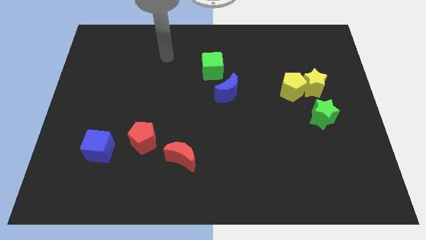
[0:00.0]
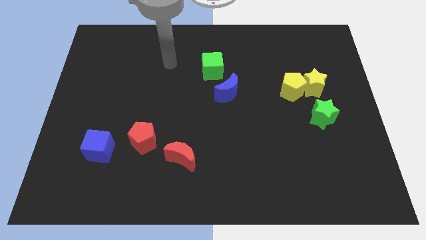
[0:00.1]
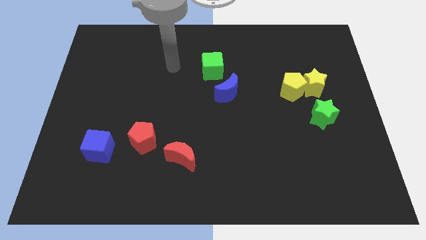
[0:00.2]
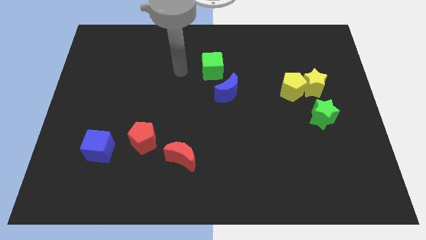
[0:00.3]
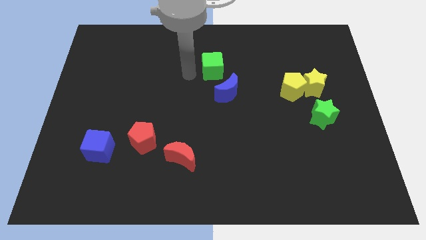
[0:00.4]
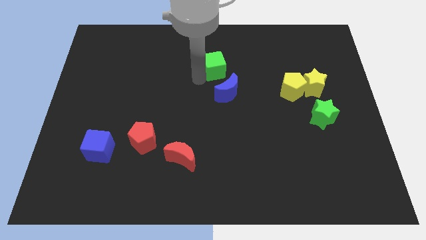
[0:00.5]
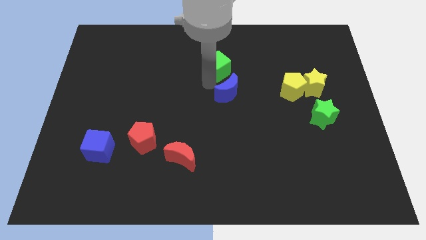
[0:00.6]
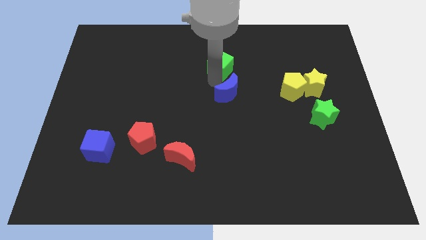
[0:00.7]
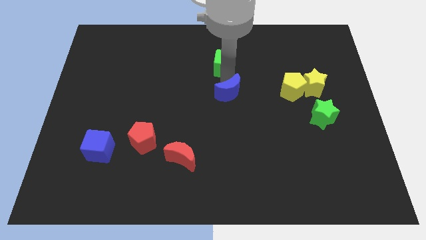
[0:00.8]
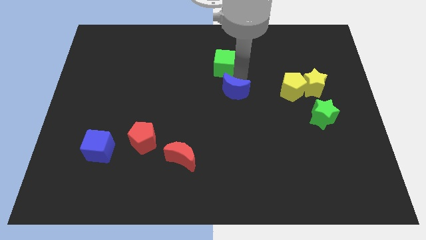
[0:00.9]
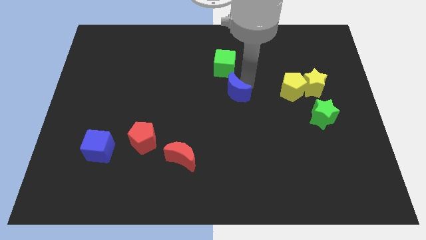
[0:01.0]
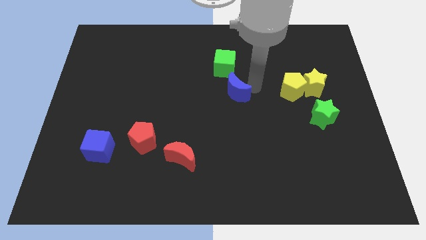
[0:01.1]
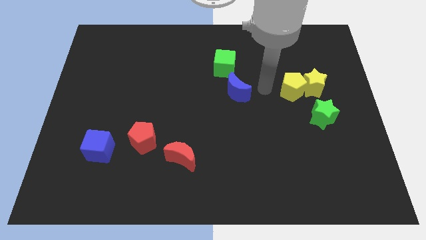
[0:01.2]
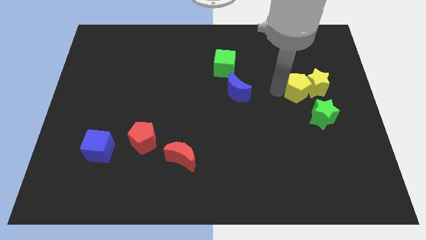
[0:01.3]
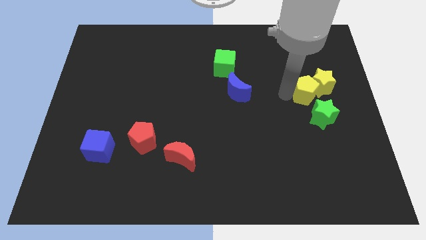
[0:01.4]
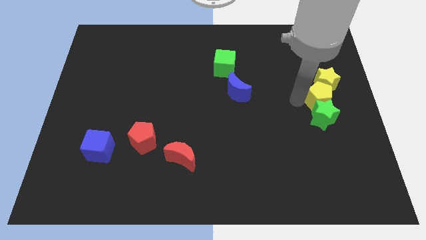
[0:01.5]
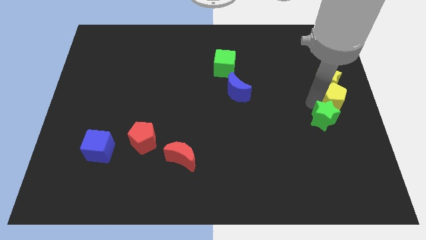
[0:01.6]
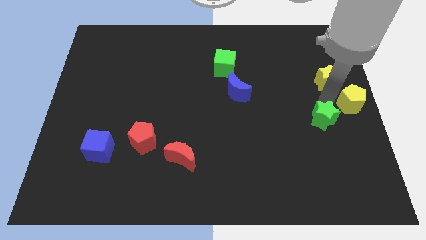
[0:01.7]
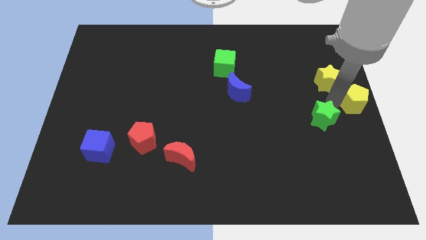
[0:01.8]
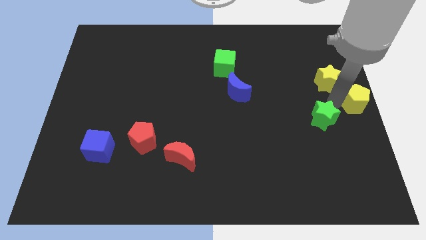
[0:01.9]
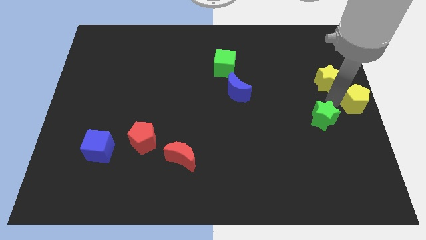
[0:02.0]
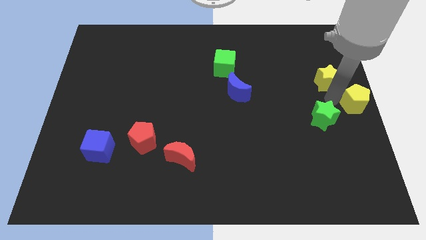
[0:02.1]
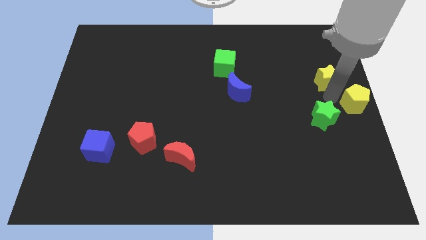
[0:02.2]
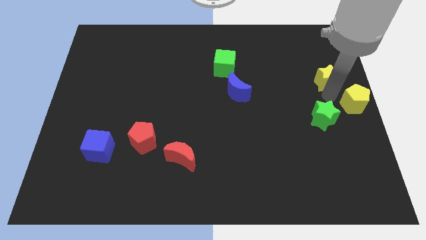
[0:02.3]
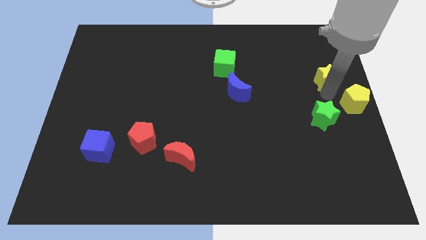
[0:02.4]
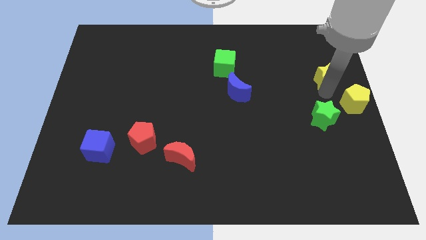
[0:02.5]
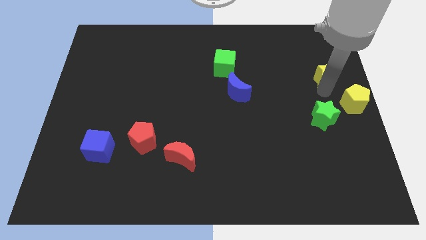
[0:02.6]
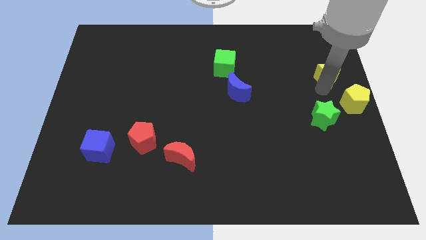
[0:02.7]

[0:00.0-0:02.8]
move the yellow star away from the yellow pentagon and green star

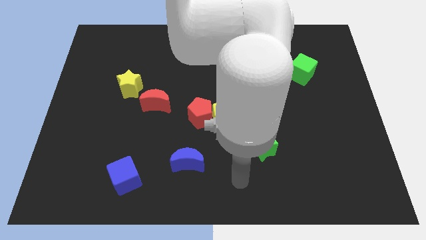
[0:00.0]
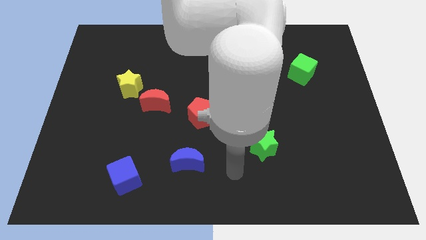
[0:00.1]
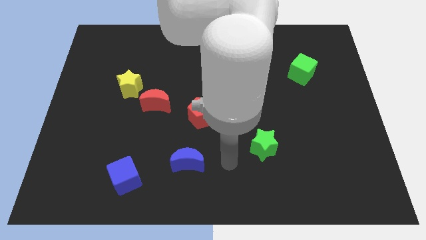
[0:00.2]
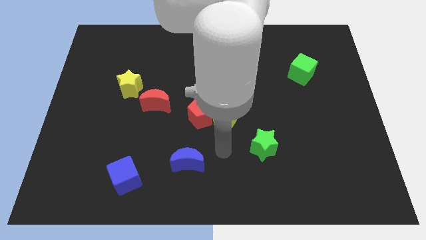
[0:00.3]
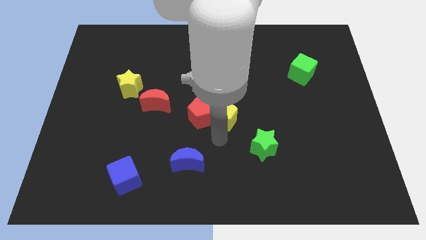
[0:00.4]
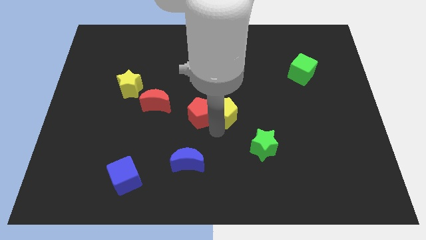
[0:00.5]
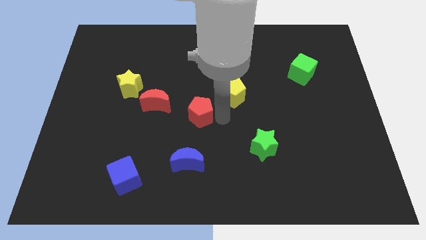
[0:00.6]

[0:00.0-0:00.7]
separate the red pentagon from the yellow pentagon

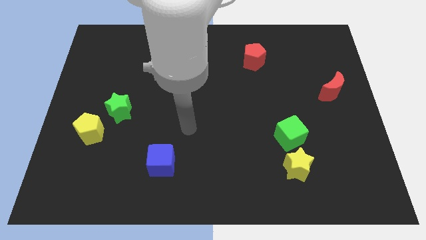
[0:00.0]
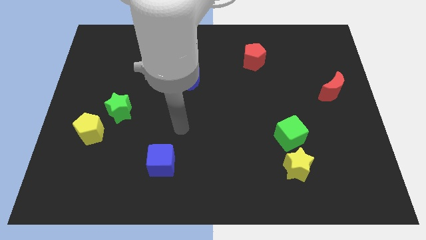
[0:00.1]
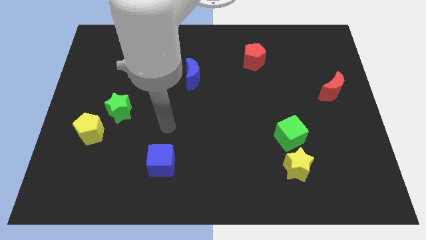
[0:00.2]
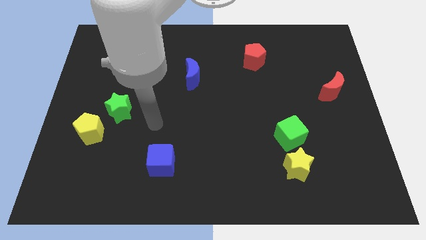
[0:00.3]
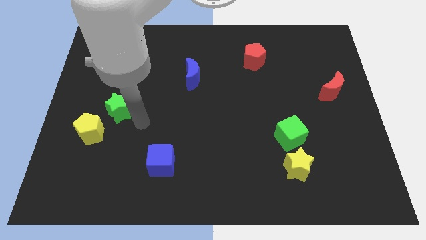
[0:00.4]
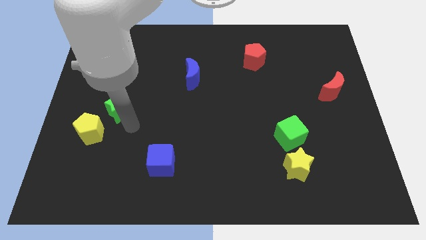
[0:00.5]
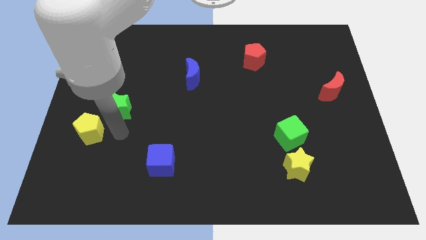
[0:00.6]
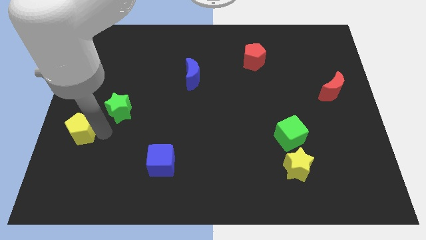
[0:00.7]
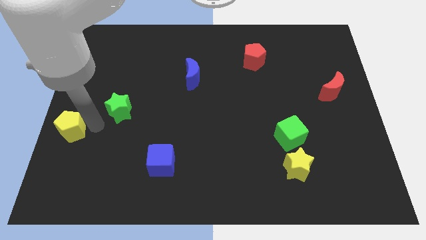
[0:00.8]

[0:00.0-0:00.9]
move the green star away from the yellow pentagon

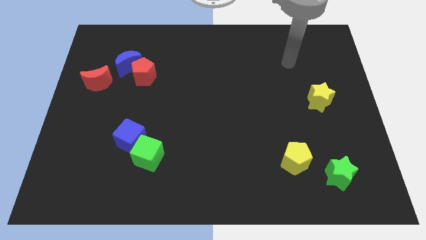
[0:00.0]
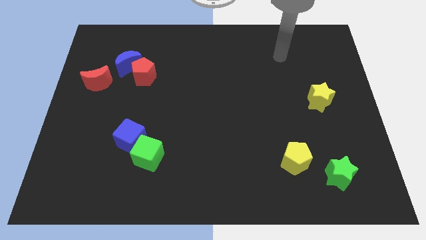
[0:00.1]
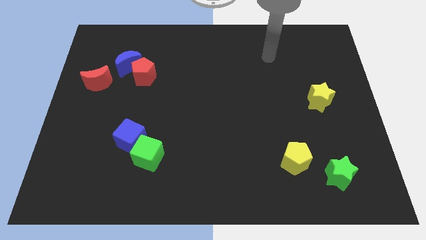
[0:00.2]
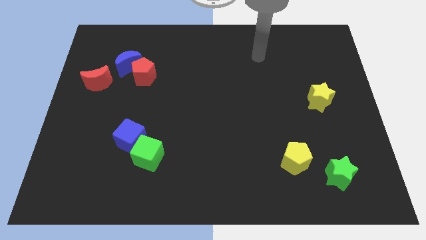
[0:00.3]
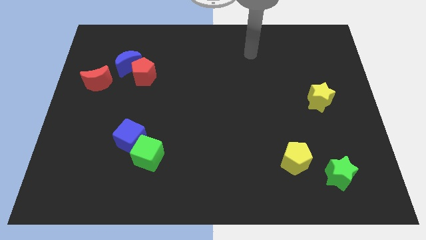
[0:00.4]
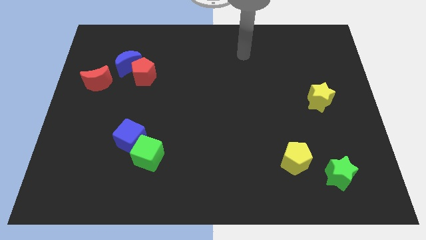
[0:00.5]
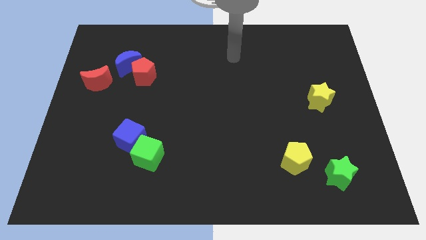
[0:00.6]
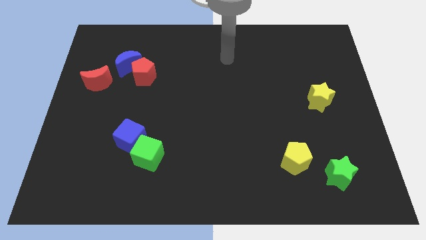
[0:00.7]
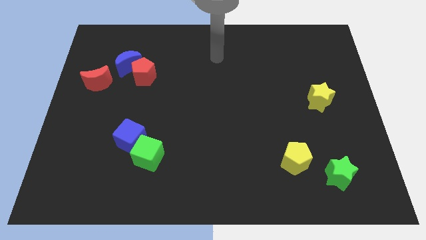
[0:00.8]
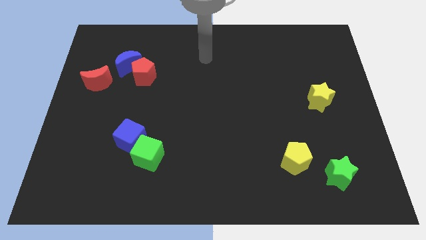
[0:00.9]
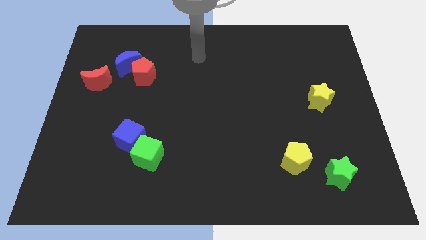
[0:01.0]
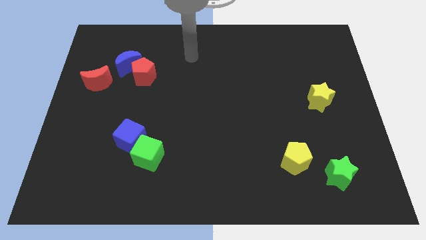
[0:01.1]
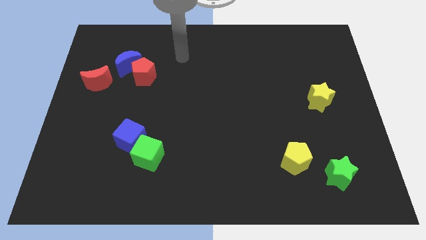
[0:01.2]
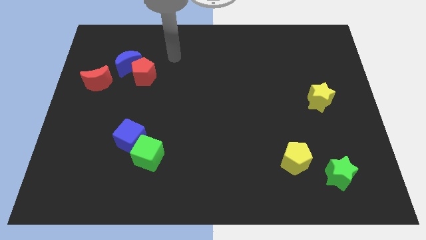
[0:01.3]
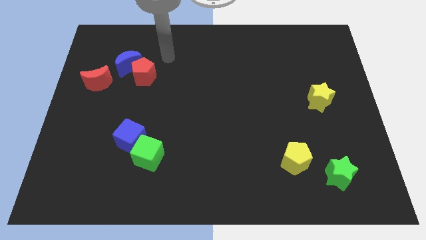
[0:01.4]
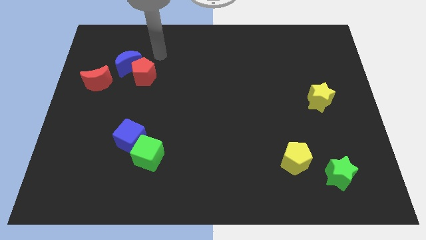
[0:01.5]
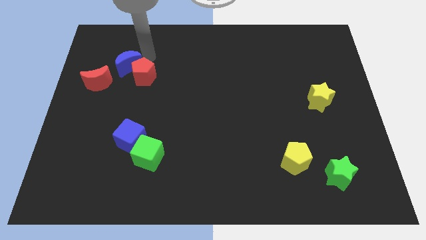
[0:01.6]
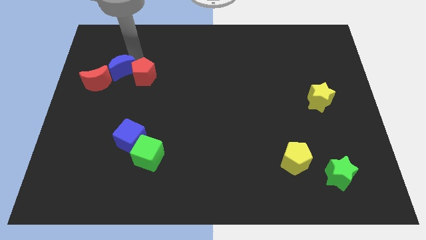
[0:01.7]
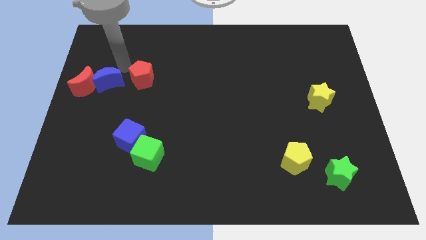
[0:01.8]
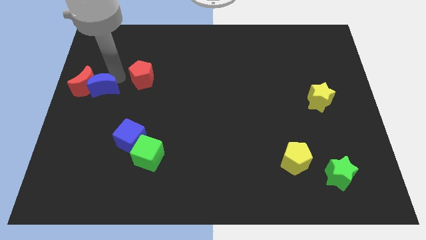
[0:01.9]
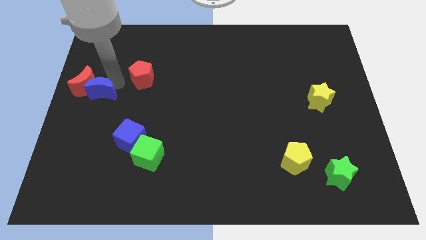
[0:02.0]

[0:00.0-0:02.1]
separate the red pentagon from the blue moon

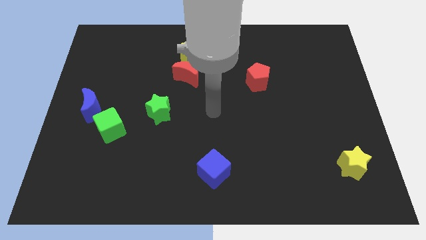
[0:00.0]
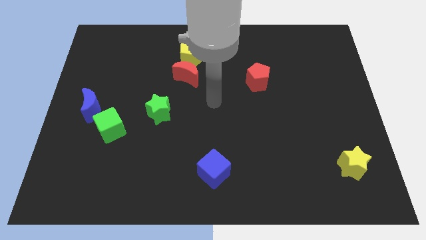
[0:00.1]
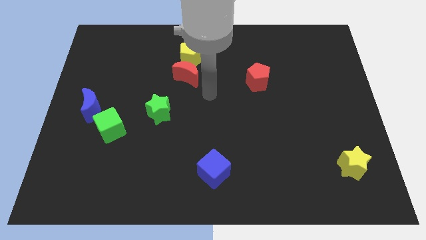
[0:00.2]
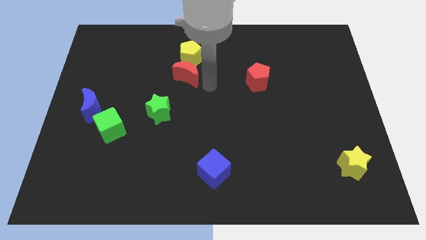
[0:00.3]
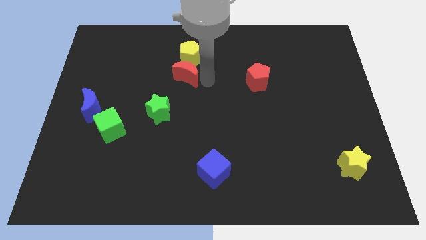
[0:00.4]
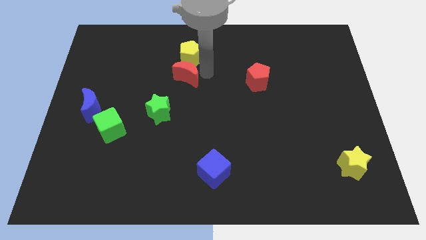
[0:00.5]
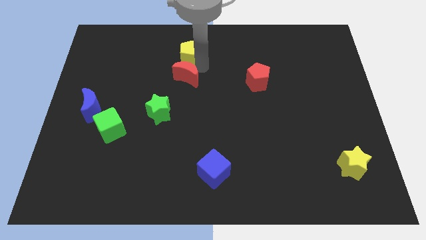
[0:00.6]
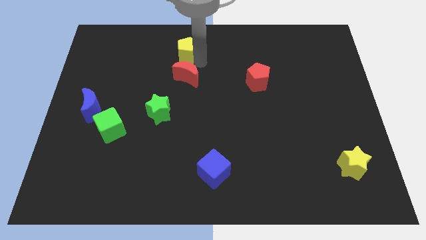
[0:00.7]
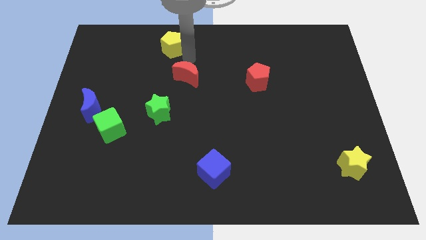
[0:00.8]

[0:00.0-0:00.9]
separate the red moon from the yellow pentagon

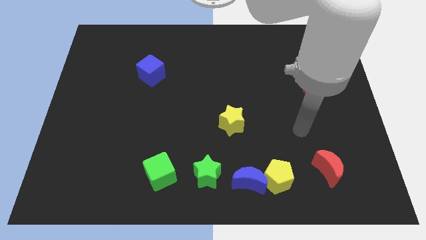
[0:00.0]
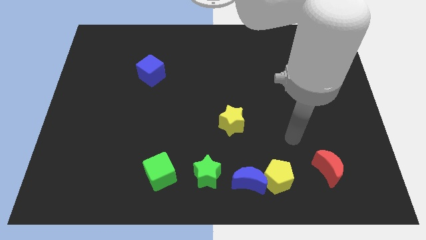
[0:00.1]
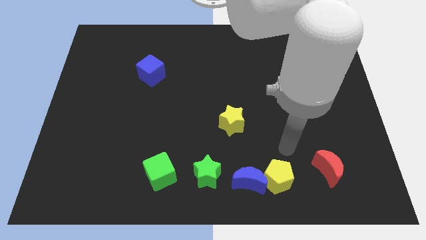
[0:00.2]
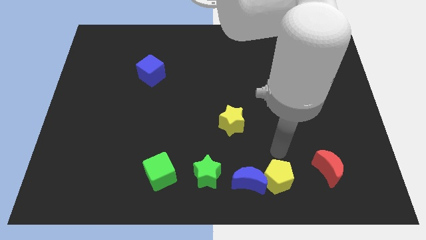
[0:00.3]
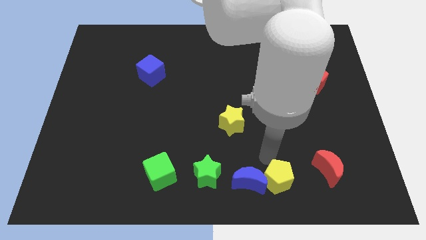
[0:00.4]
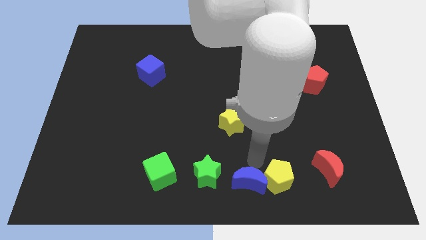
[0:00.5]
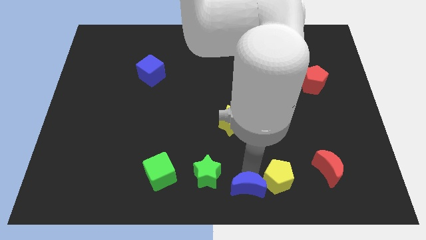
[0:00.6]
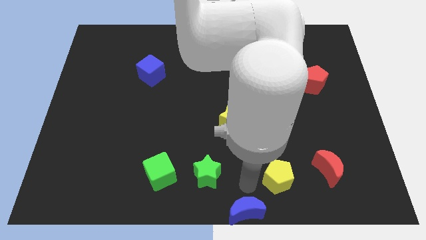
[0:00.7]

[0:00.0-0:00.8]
move the yellow pentagon away from the blue moon

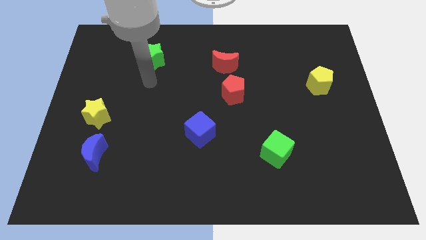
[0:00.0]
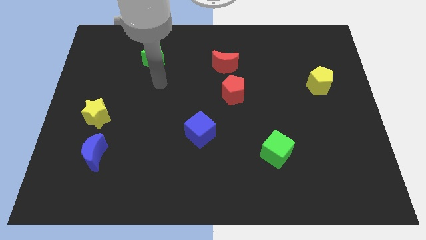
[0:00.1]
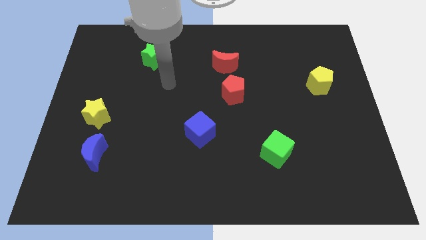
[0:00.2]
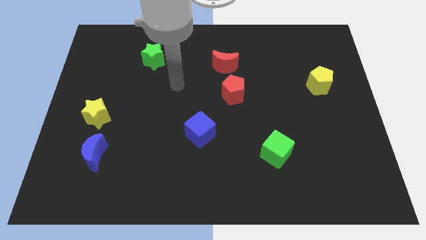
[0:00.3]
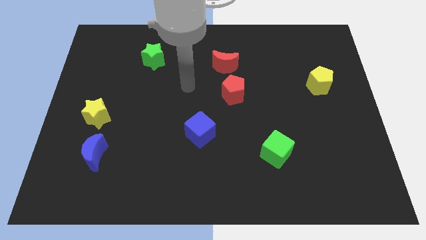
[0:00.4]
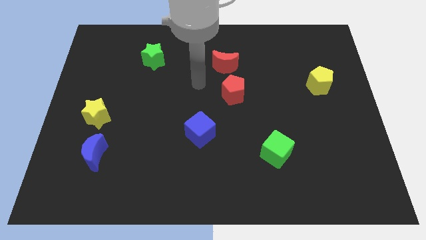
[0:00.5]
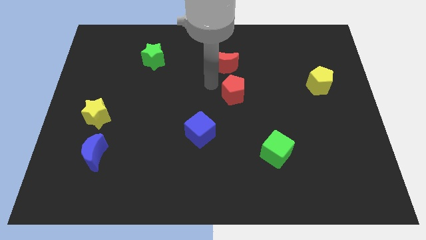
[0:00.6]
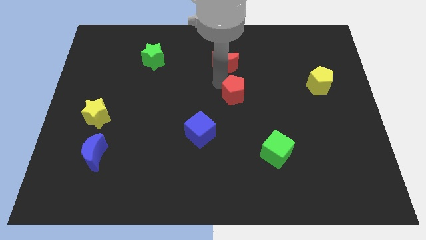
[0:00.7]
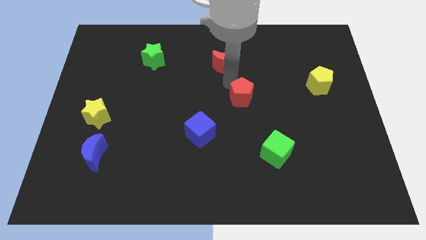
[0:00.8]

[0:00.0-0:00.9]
separate the red moon from the red pentagon
